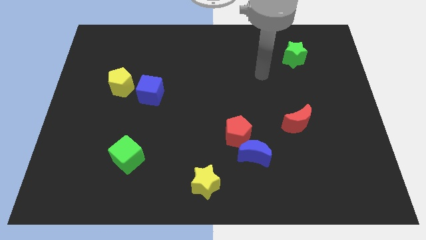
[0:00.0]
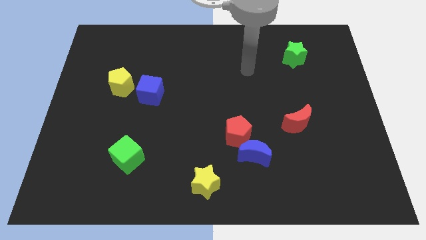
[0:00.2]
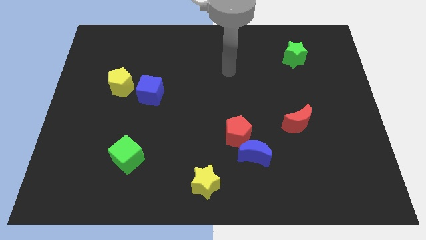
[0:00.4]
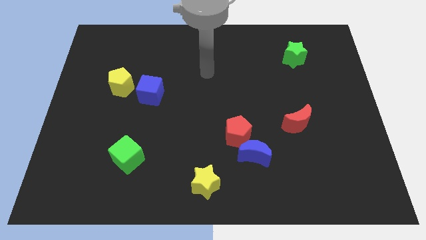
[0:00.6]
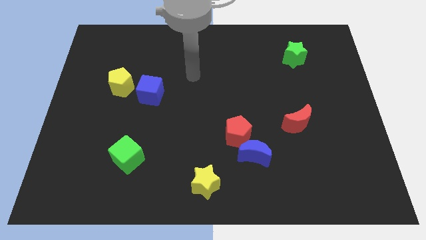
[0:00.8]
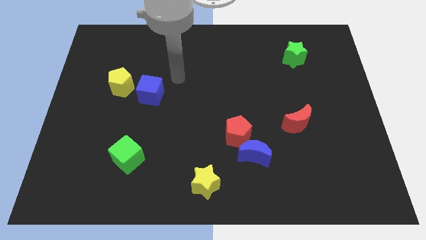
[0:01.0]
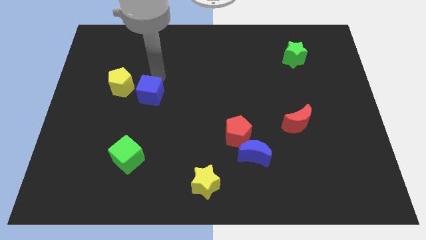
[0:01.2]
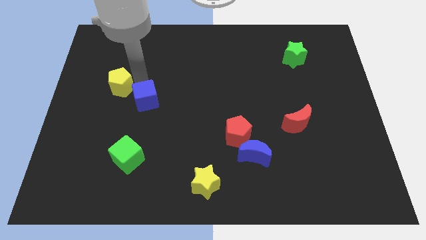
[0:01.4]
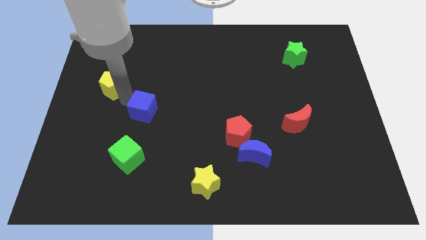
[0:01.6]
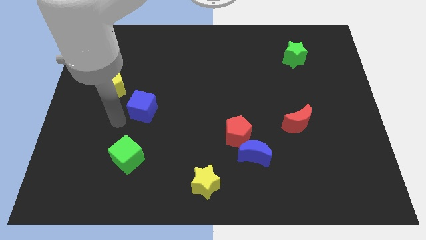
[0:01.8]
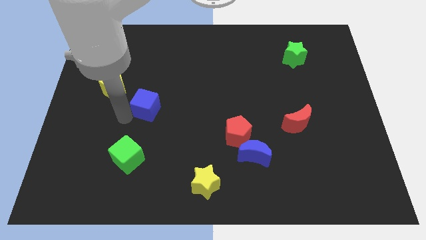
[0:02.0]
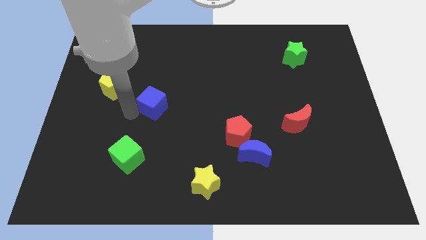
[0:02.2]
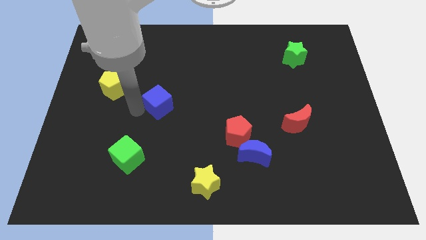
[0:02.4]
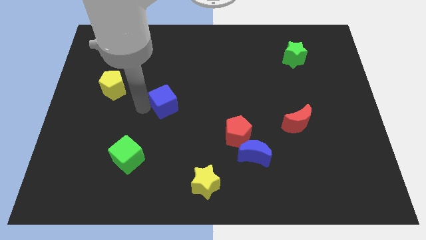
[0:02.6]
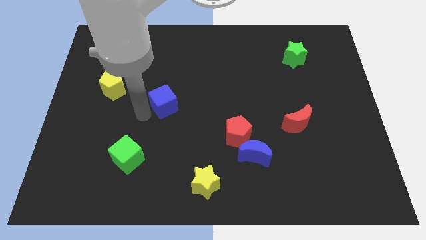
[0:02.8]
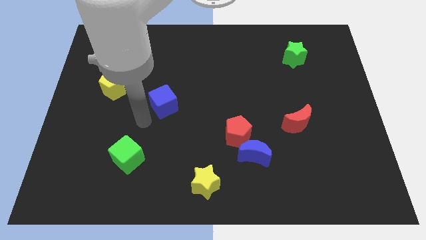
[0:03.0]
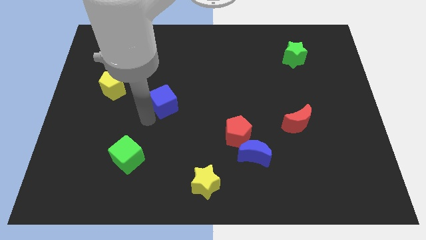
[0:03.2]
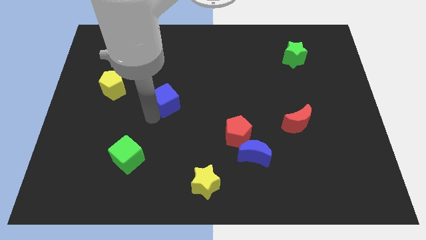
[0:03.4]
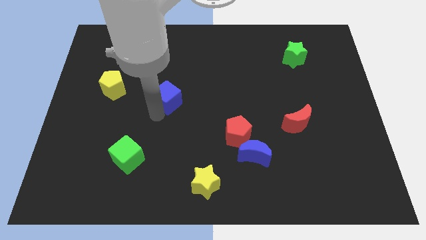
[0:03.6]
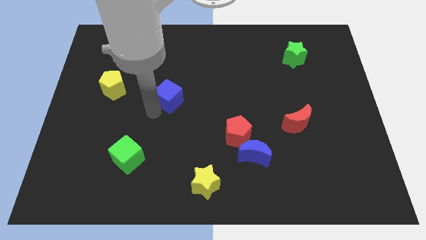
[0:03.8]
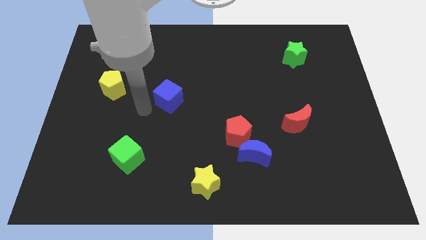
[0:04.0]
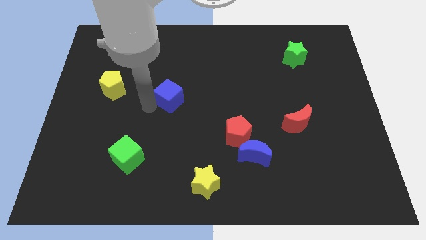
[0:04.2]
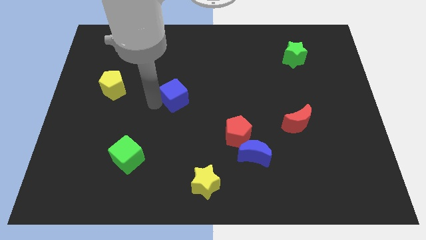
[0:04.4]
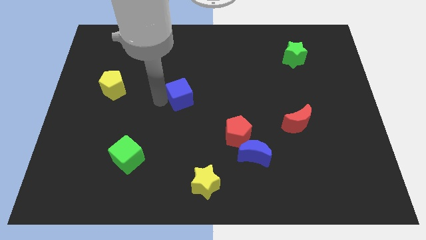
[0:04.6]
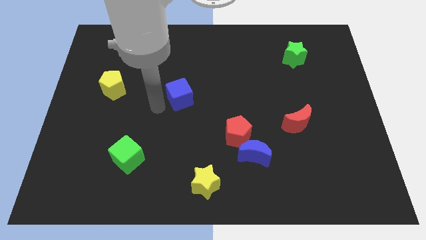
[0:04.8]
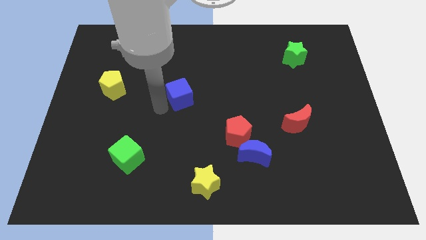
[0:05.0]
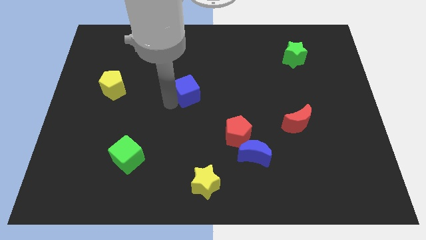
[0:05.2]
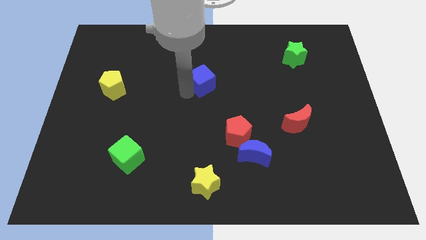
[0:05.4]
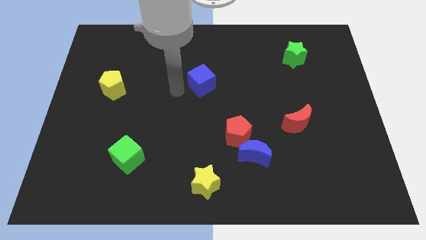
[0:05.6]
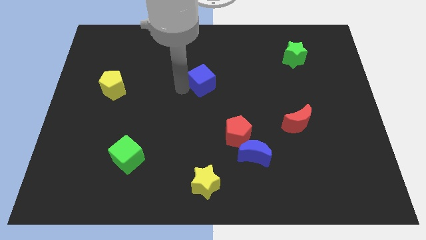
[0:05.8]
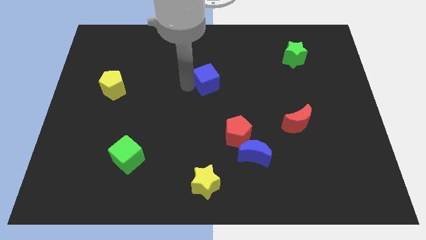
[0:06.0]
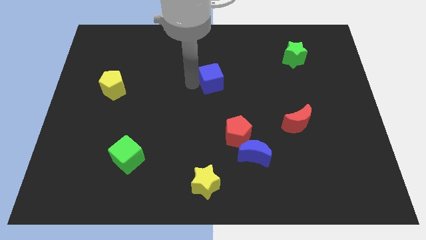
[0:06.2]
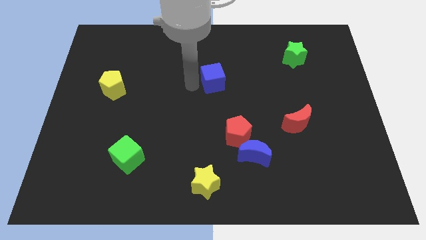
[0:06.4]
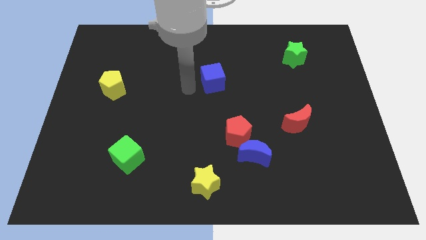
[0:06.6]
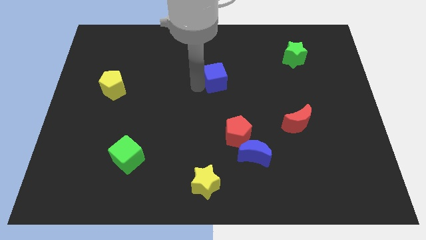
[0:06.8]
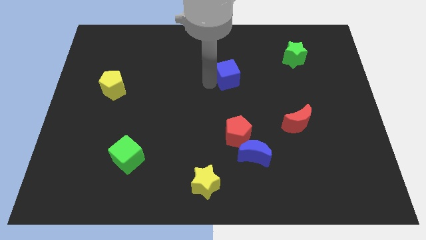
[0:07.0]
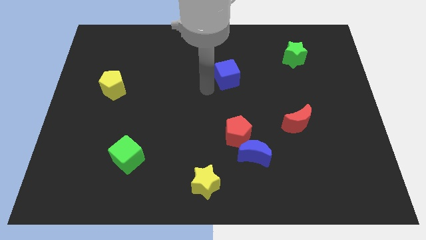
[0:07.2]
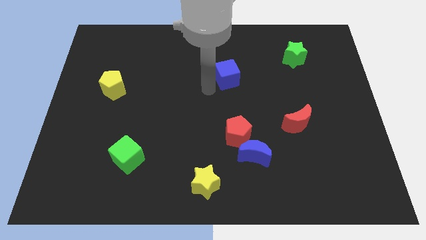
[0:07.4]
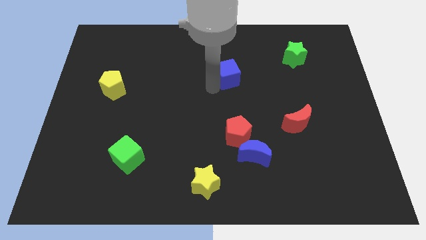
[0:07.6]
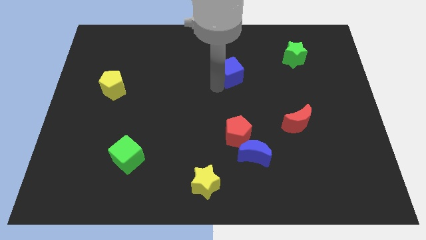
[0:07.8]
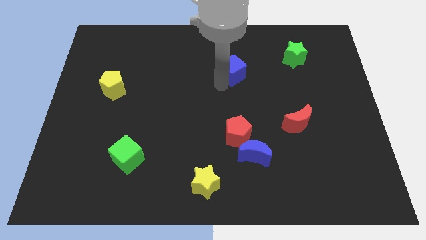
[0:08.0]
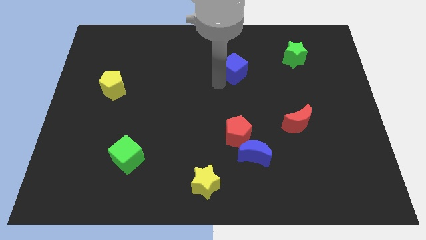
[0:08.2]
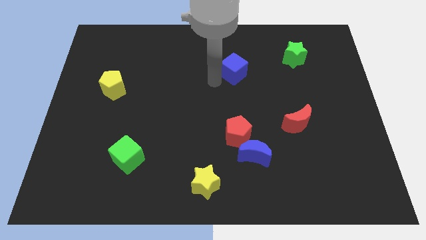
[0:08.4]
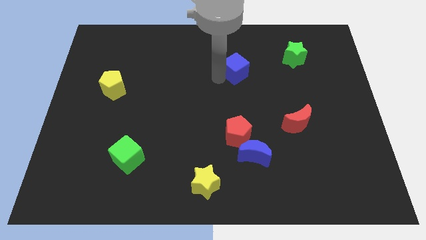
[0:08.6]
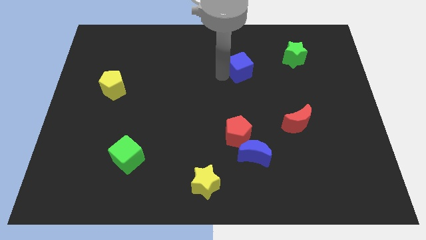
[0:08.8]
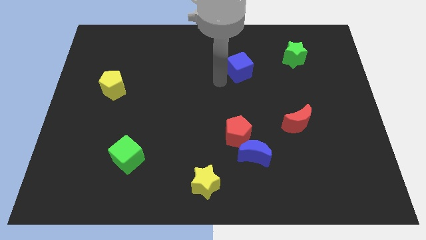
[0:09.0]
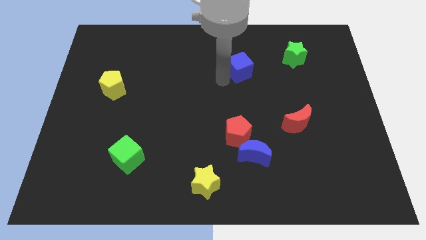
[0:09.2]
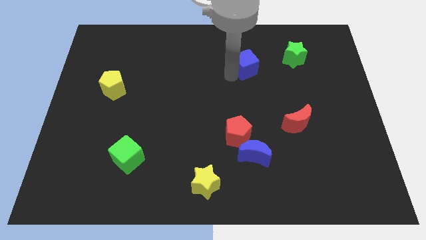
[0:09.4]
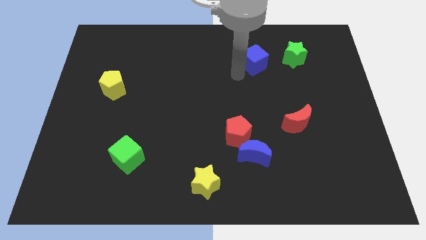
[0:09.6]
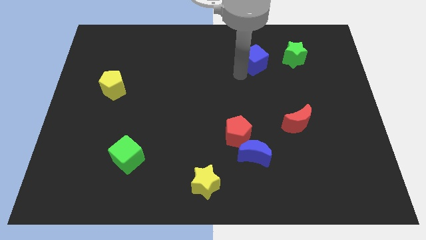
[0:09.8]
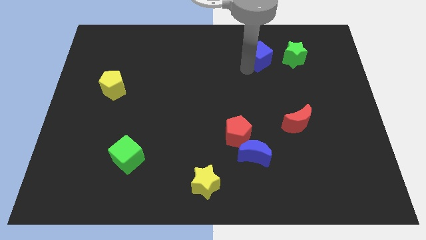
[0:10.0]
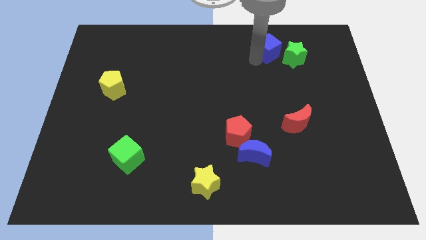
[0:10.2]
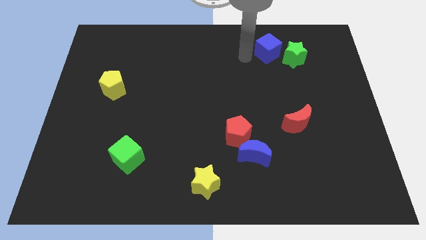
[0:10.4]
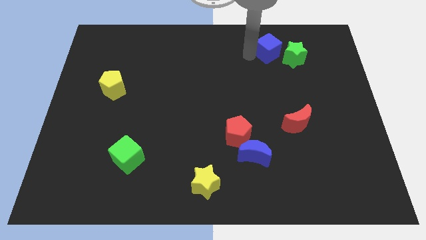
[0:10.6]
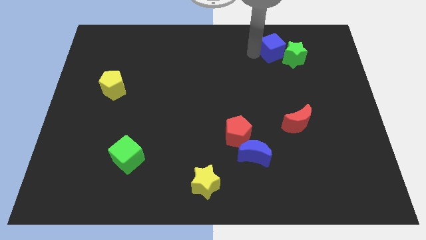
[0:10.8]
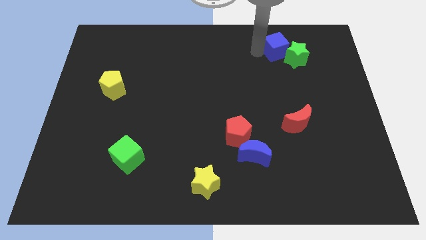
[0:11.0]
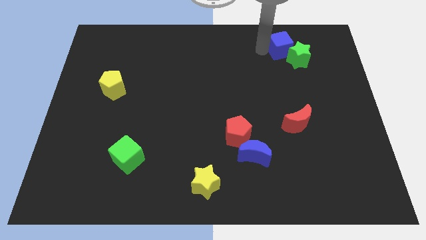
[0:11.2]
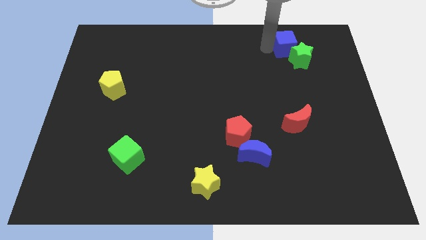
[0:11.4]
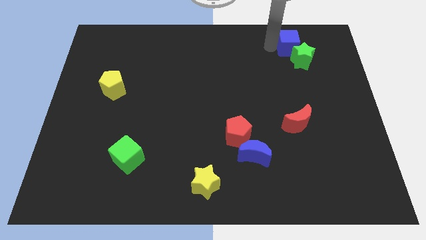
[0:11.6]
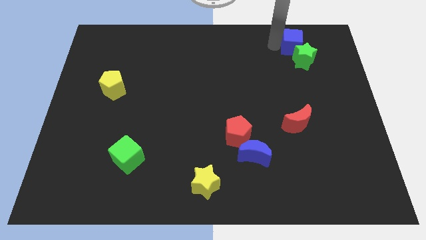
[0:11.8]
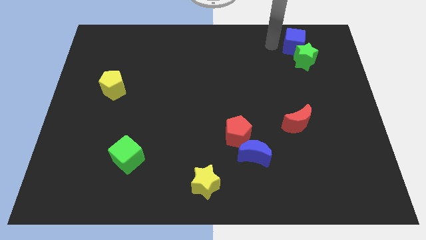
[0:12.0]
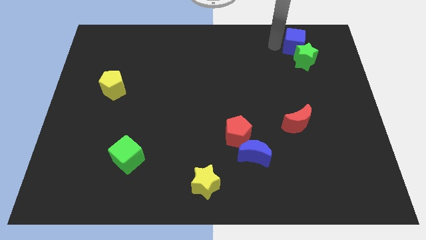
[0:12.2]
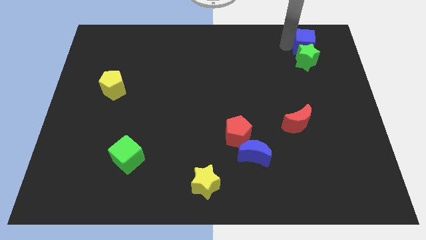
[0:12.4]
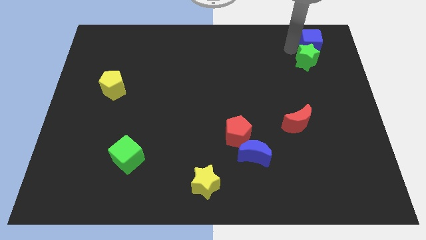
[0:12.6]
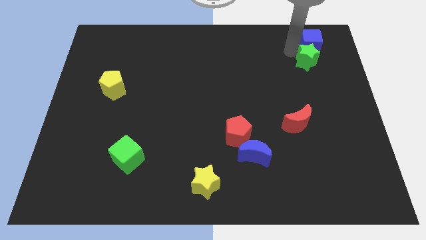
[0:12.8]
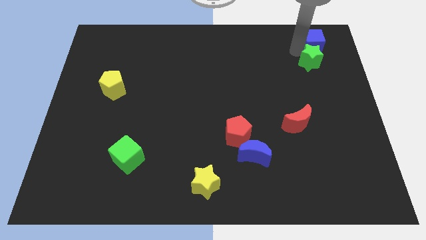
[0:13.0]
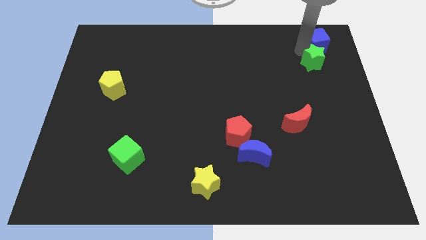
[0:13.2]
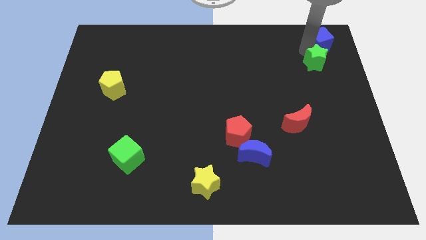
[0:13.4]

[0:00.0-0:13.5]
push the blue cube to the top right
